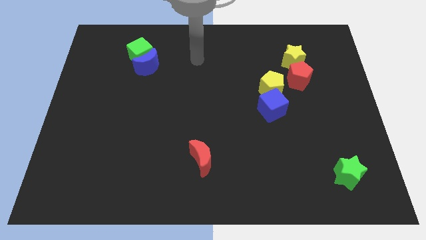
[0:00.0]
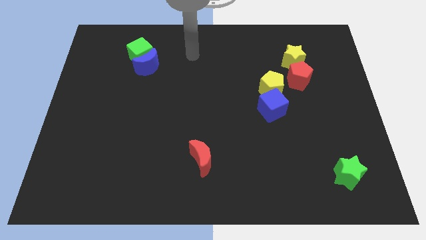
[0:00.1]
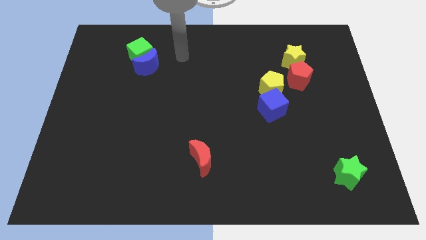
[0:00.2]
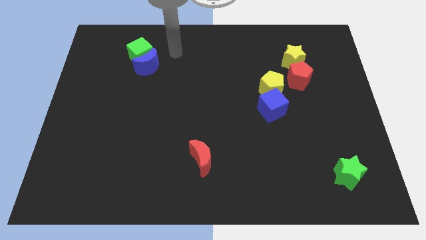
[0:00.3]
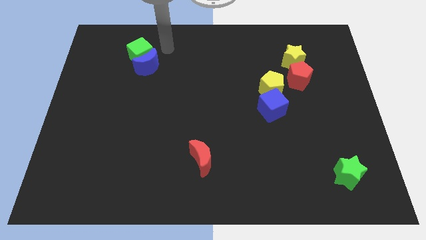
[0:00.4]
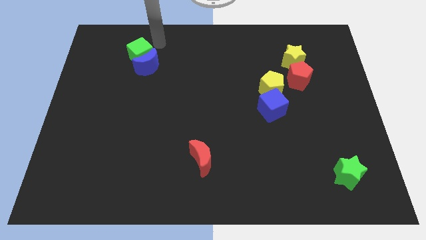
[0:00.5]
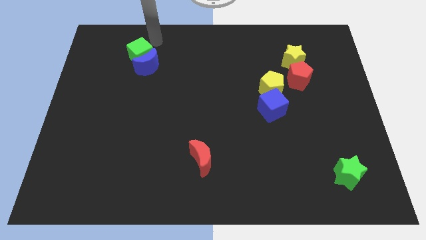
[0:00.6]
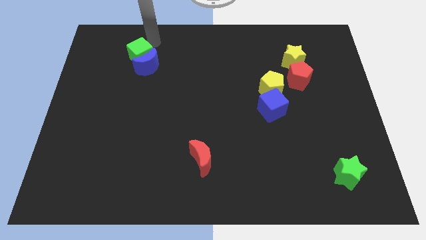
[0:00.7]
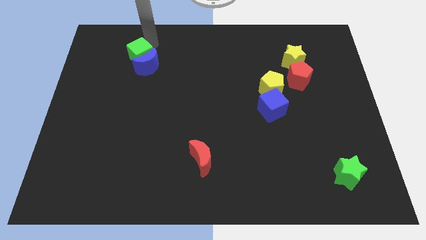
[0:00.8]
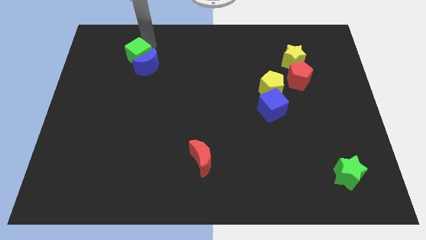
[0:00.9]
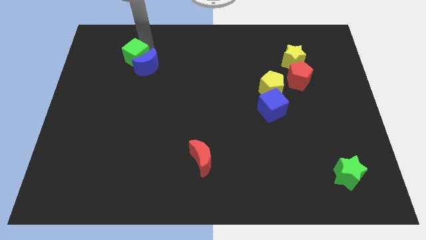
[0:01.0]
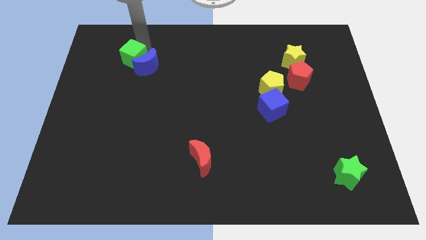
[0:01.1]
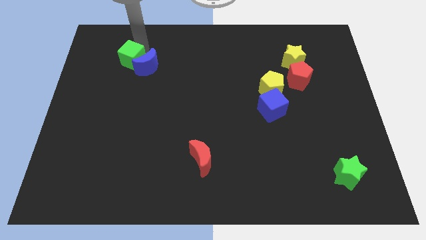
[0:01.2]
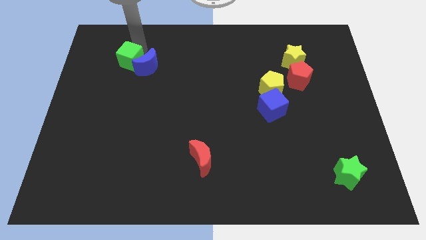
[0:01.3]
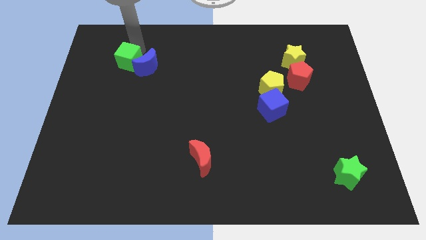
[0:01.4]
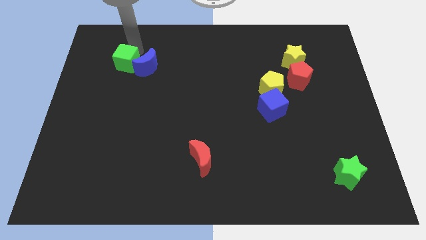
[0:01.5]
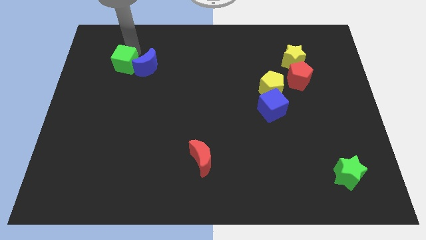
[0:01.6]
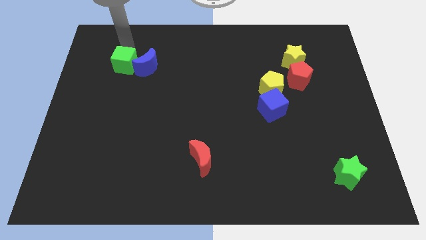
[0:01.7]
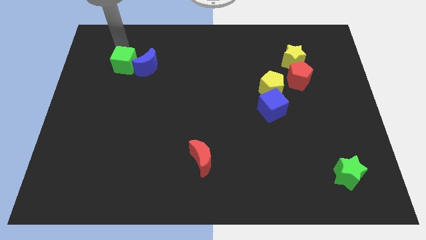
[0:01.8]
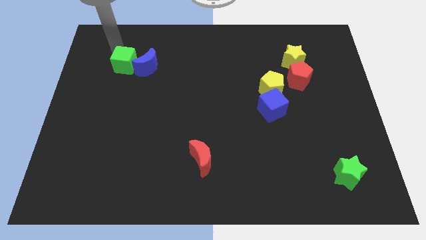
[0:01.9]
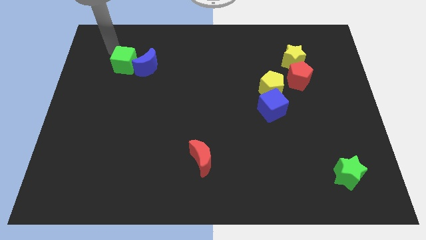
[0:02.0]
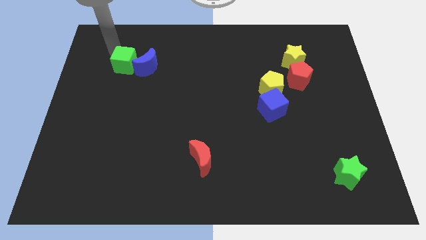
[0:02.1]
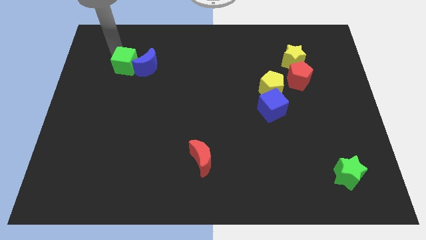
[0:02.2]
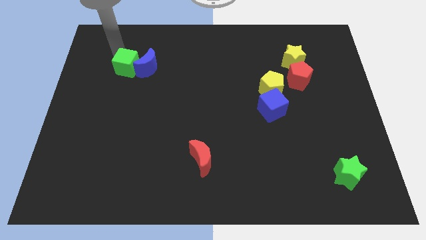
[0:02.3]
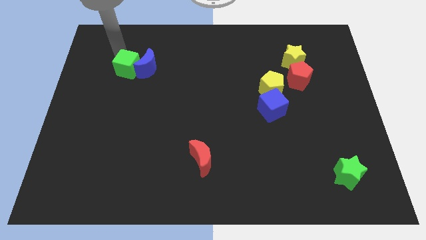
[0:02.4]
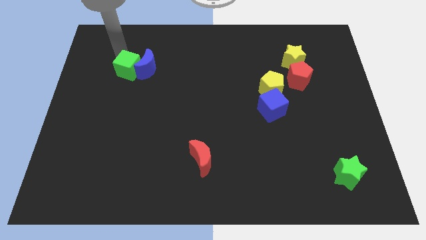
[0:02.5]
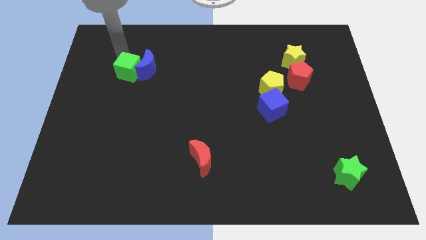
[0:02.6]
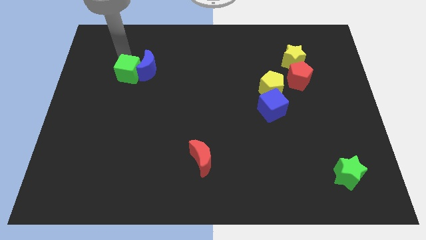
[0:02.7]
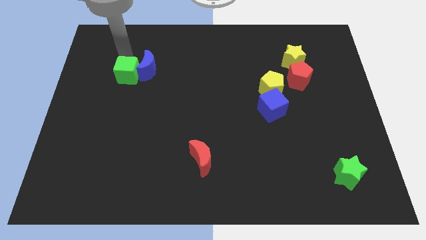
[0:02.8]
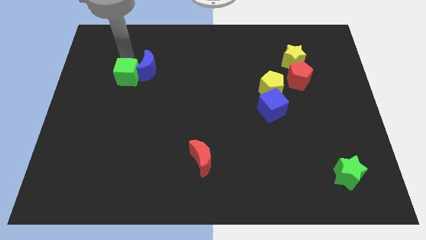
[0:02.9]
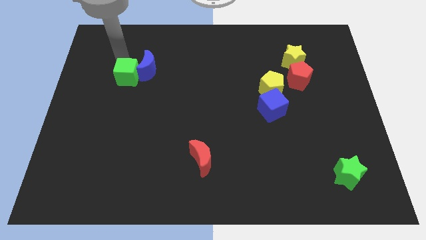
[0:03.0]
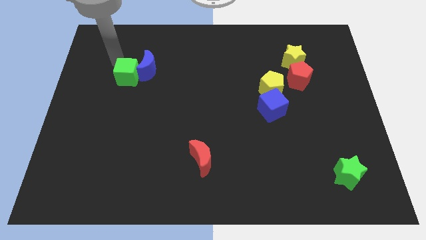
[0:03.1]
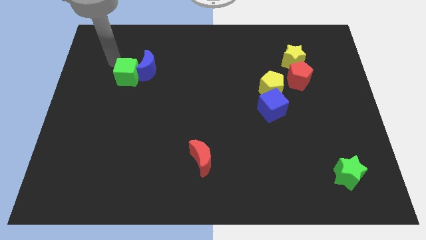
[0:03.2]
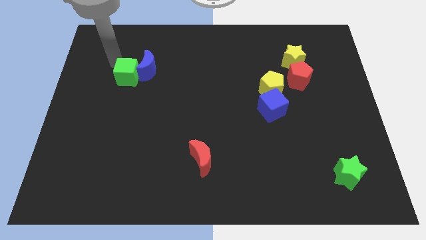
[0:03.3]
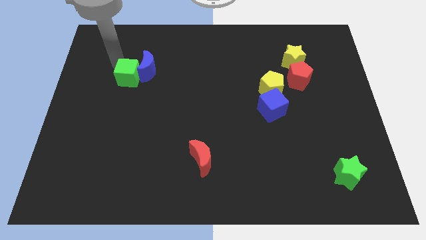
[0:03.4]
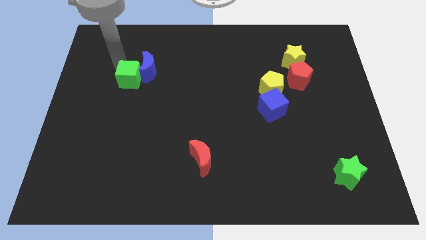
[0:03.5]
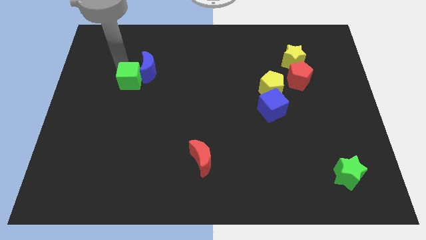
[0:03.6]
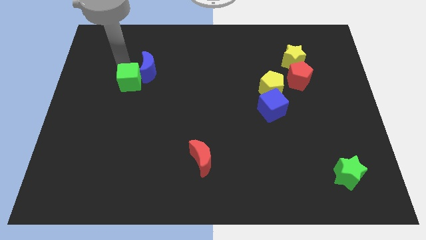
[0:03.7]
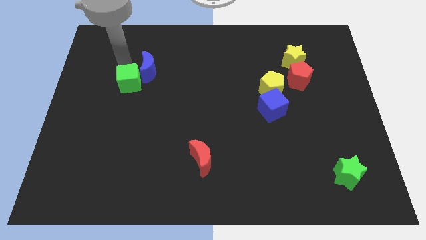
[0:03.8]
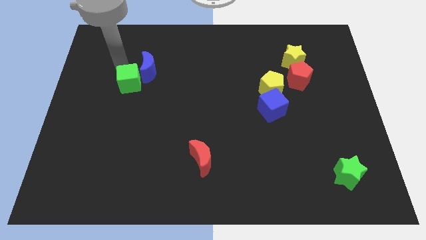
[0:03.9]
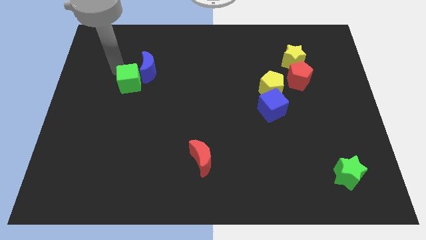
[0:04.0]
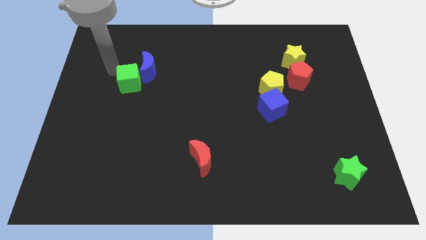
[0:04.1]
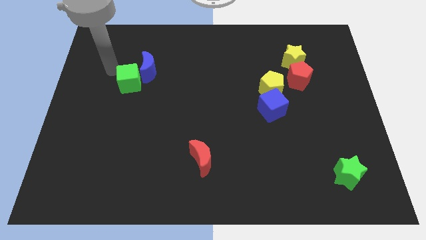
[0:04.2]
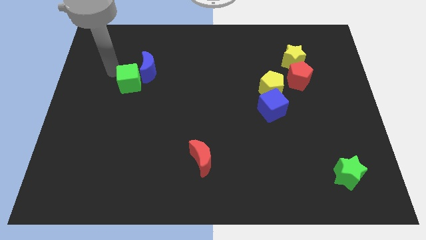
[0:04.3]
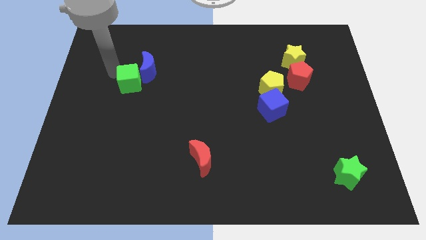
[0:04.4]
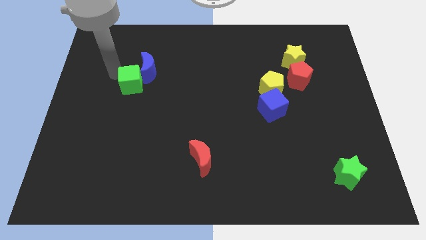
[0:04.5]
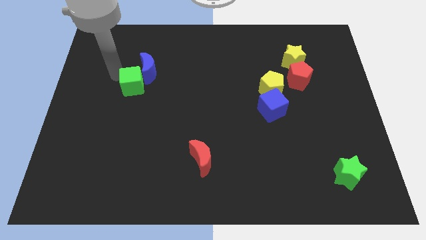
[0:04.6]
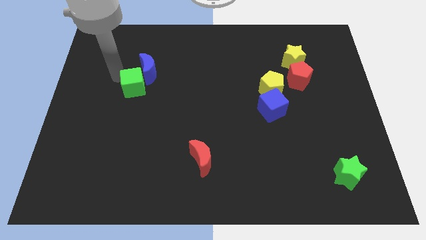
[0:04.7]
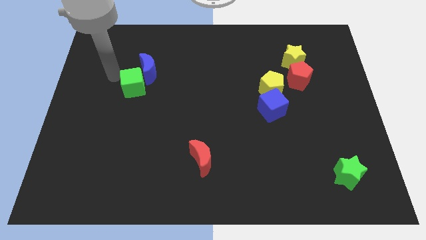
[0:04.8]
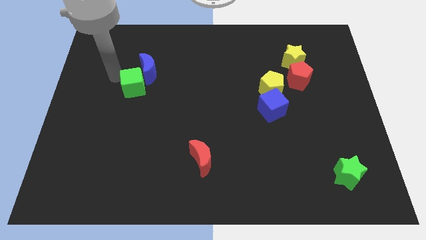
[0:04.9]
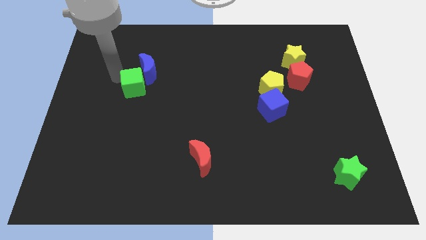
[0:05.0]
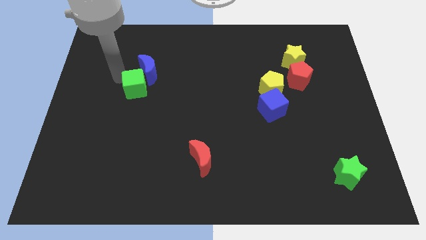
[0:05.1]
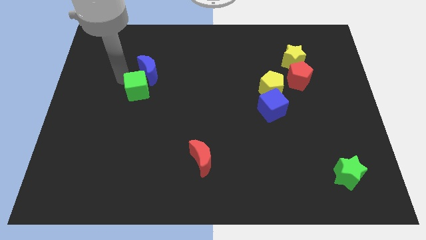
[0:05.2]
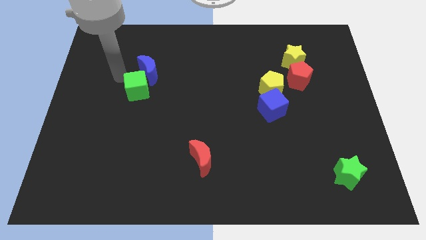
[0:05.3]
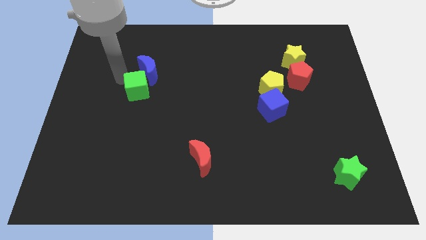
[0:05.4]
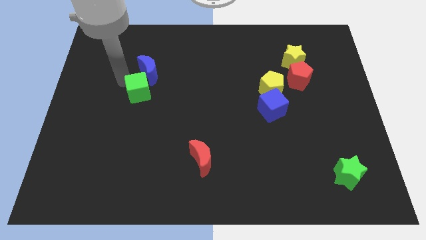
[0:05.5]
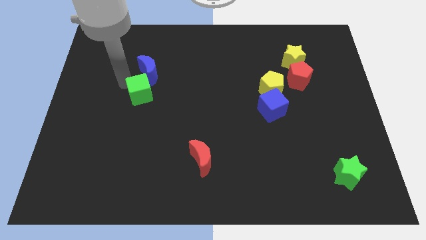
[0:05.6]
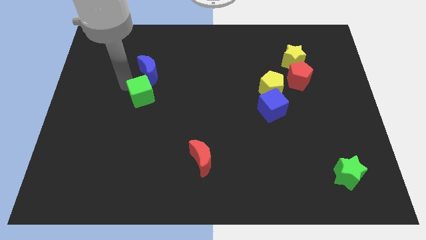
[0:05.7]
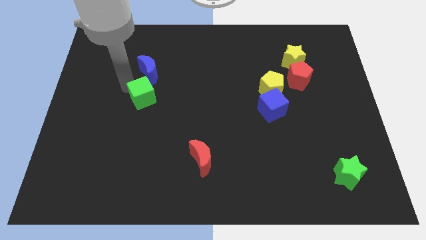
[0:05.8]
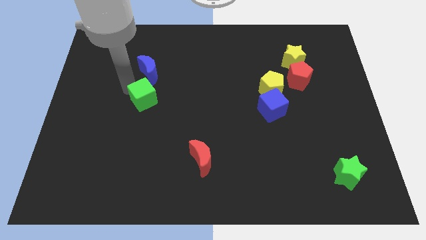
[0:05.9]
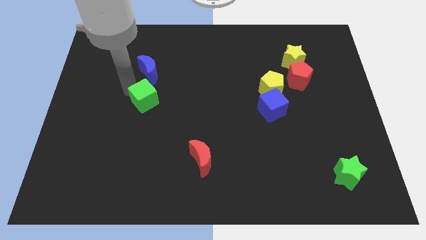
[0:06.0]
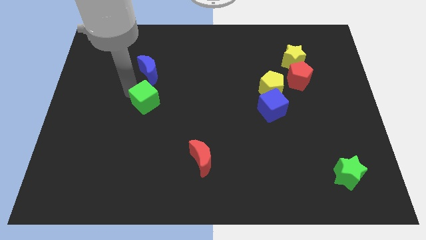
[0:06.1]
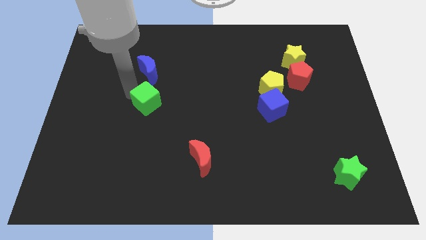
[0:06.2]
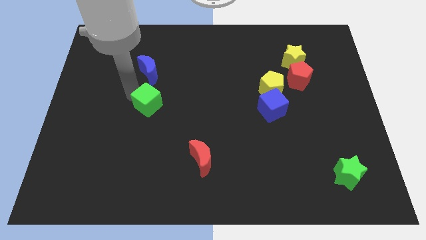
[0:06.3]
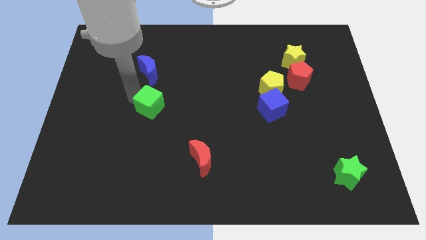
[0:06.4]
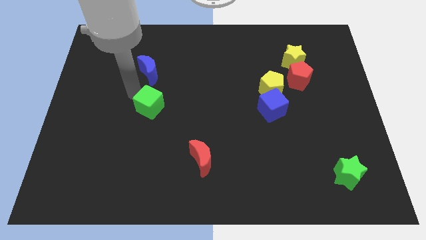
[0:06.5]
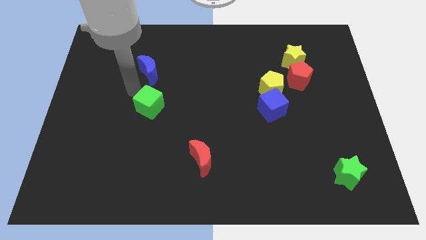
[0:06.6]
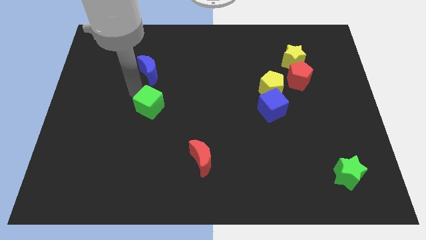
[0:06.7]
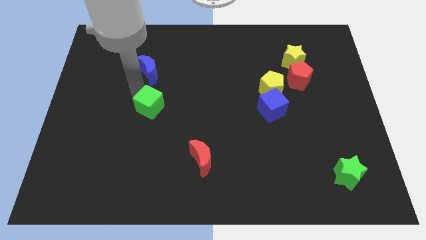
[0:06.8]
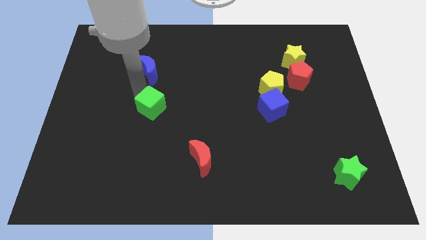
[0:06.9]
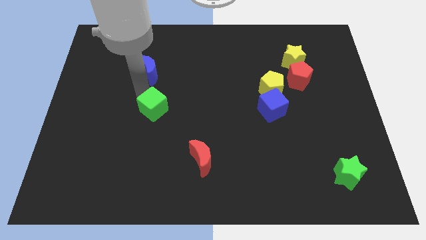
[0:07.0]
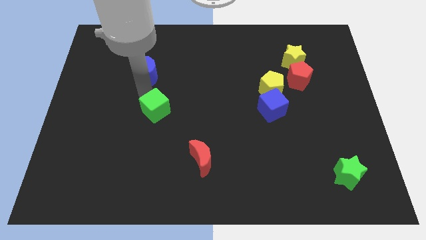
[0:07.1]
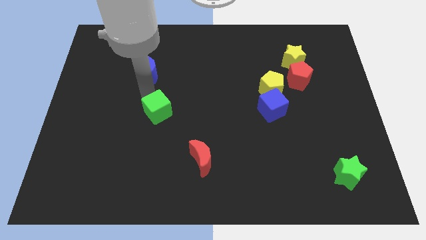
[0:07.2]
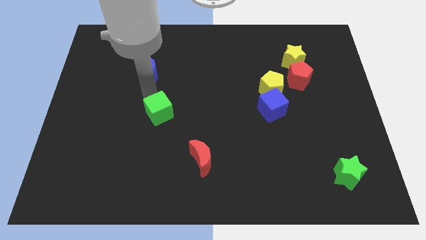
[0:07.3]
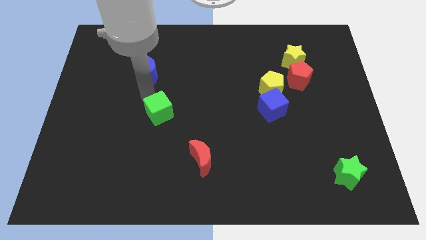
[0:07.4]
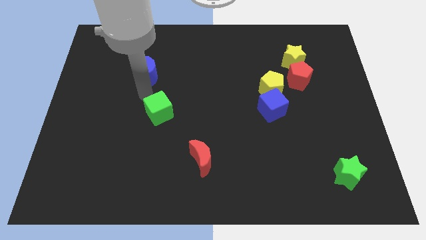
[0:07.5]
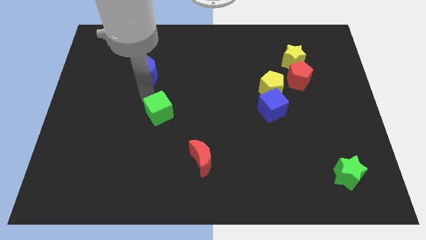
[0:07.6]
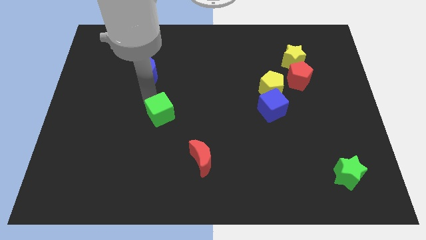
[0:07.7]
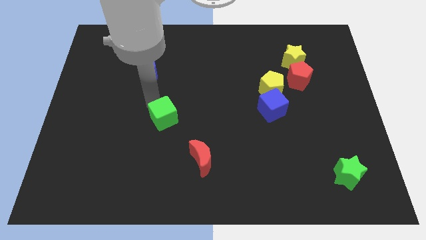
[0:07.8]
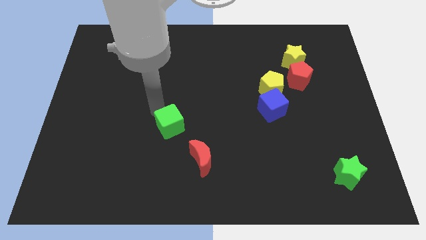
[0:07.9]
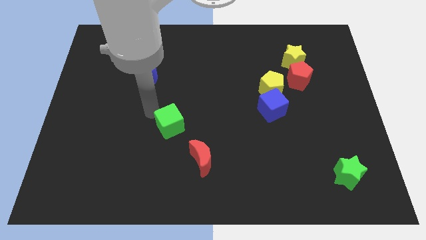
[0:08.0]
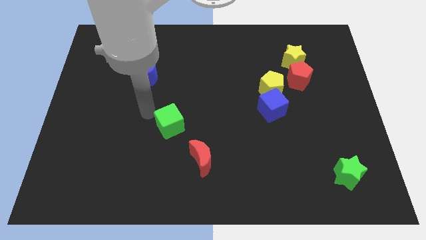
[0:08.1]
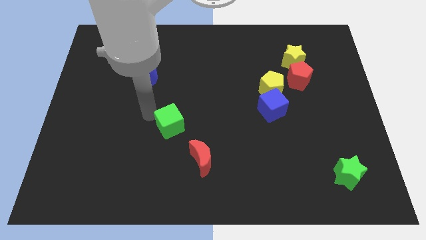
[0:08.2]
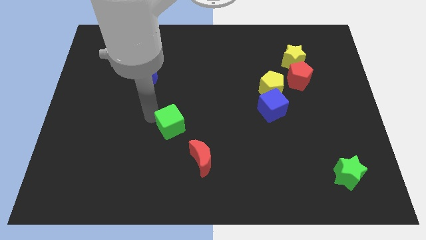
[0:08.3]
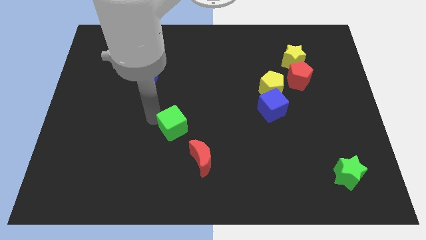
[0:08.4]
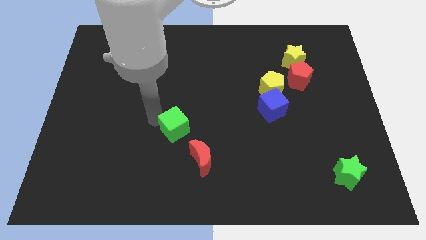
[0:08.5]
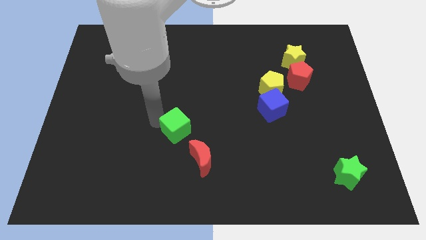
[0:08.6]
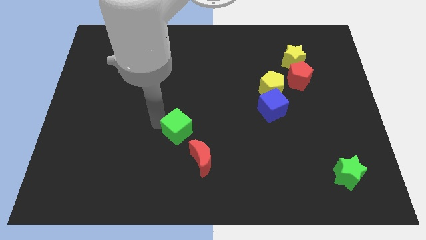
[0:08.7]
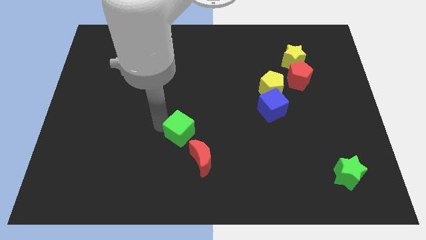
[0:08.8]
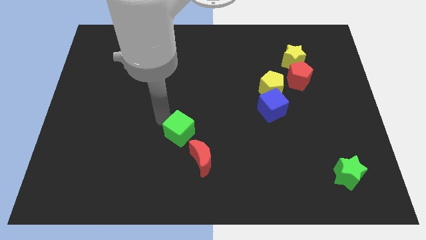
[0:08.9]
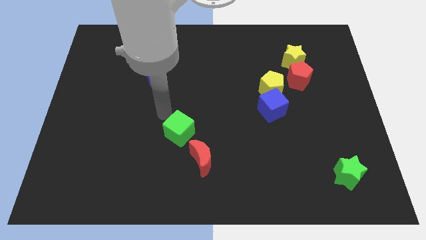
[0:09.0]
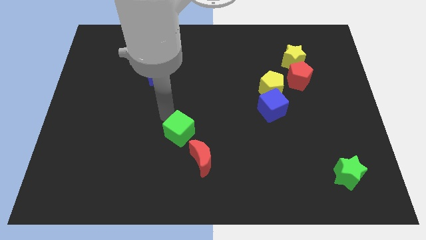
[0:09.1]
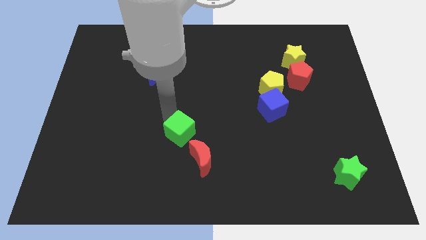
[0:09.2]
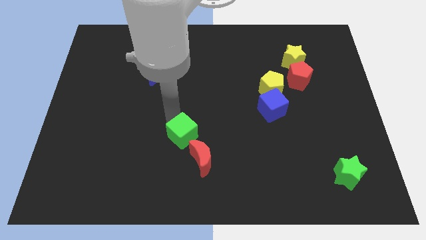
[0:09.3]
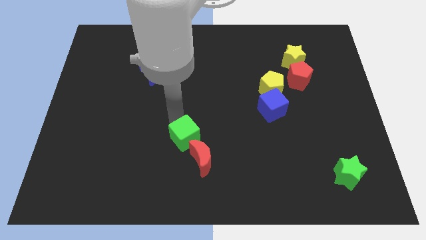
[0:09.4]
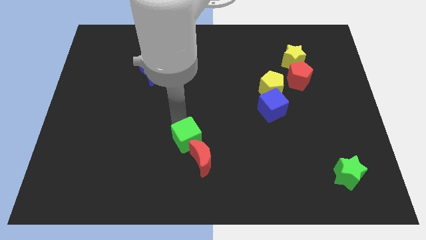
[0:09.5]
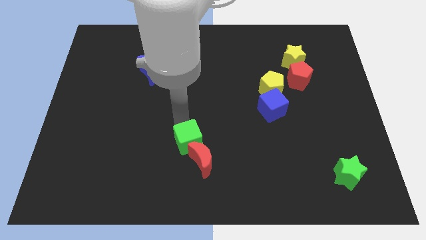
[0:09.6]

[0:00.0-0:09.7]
put the green cube to the red moon
